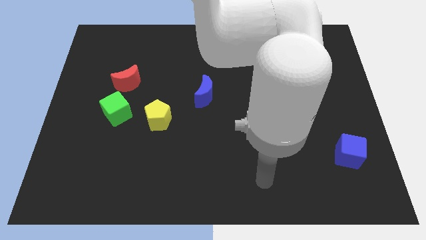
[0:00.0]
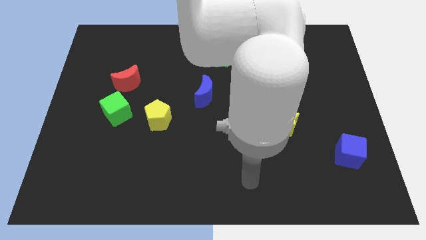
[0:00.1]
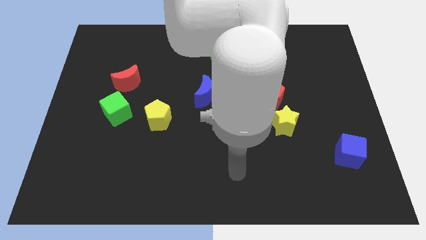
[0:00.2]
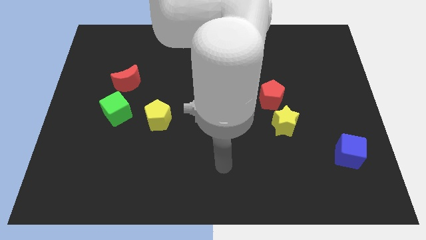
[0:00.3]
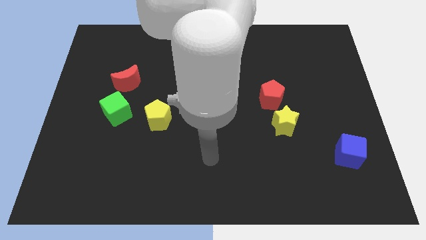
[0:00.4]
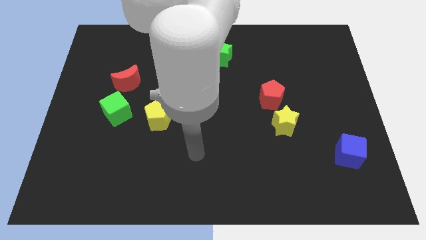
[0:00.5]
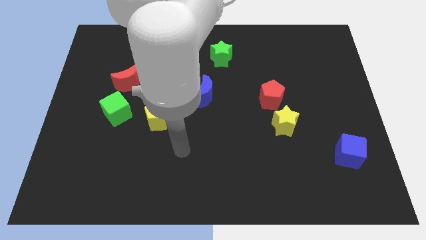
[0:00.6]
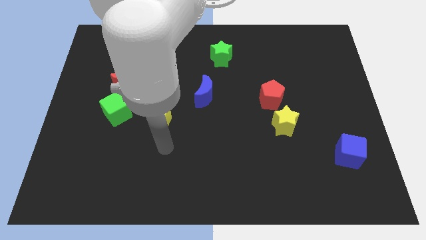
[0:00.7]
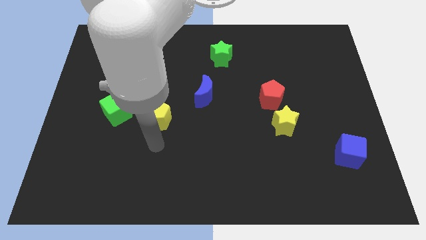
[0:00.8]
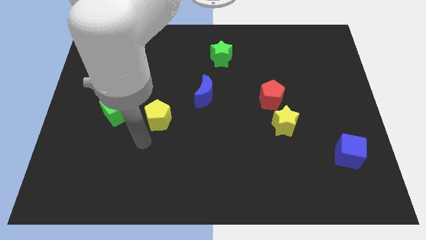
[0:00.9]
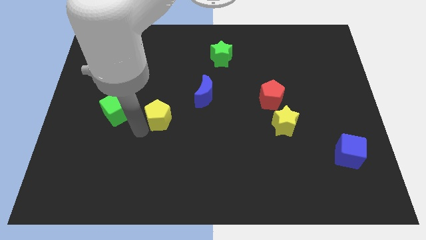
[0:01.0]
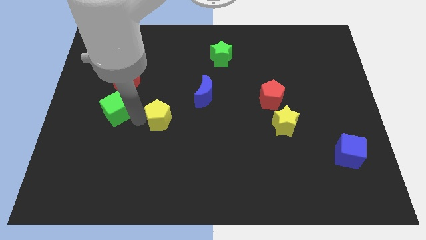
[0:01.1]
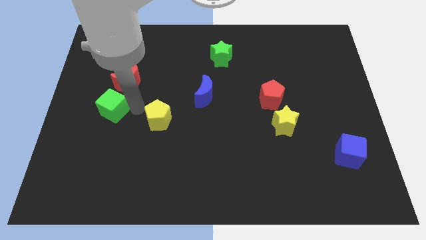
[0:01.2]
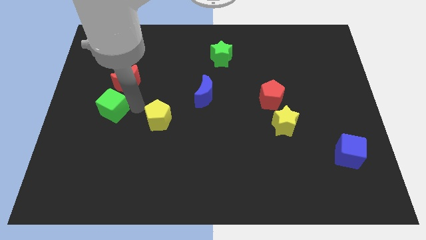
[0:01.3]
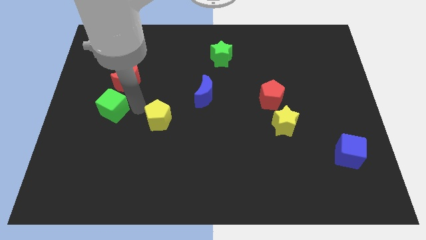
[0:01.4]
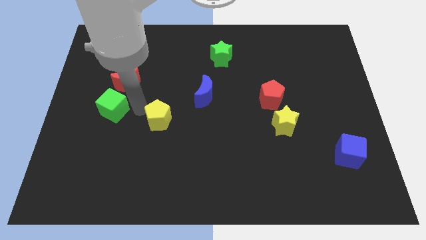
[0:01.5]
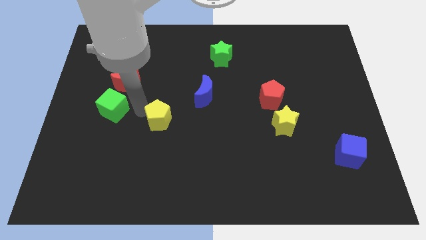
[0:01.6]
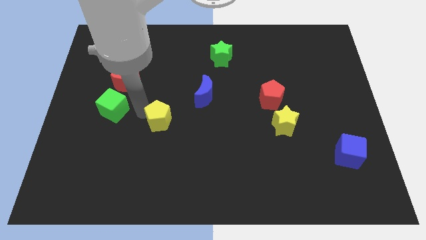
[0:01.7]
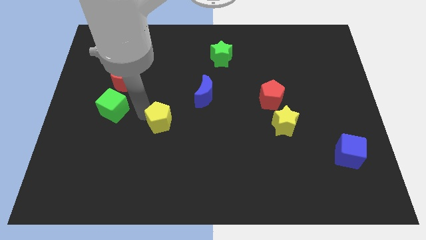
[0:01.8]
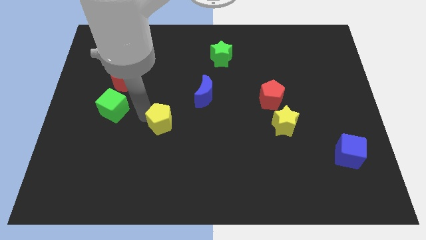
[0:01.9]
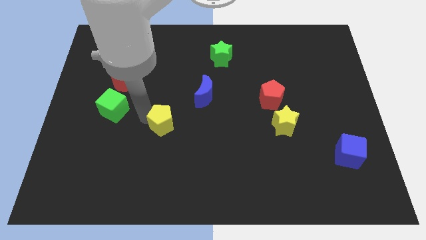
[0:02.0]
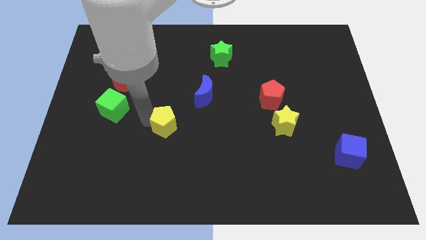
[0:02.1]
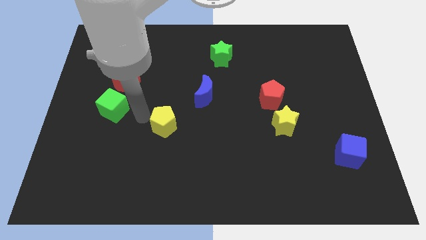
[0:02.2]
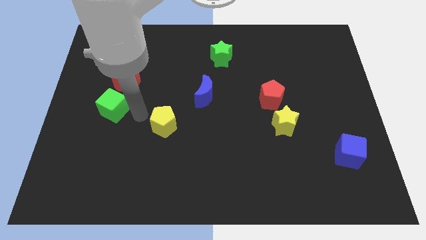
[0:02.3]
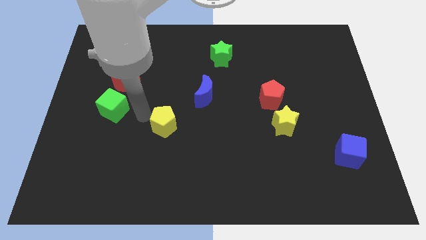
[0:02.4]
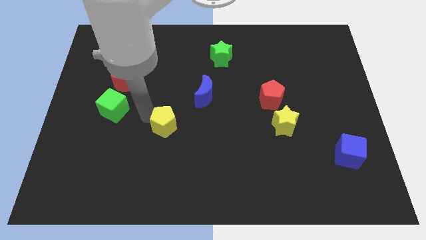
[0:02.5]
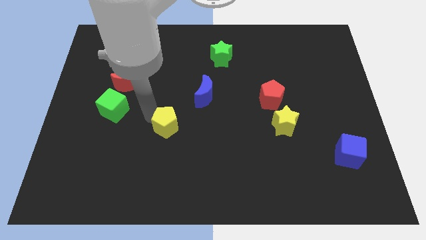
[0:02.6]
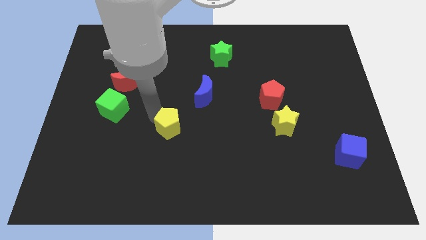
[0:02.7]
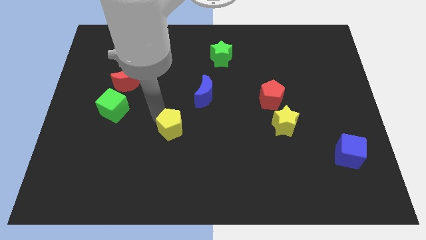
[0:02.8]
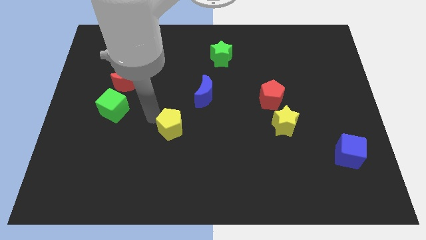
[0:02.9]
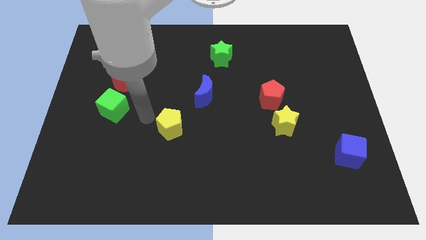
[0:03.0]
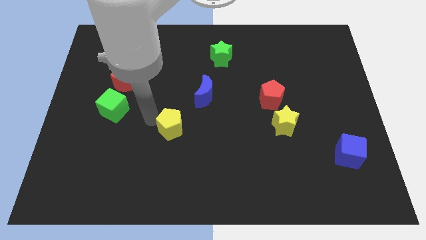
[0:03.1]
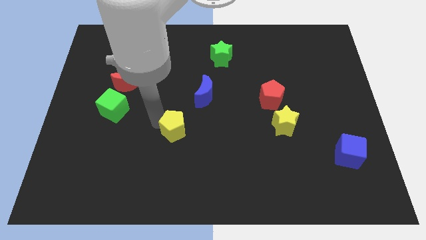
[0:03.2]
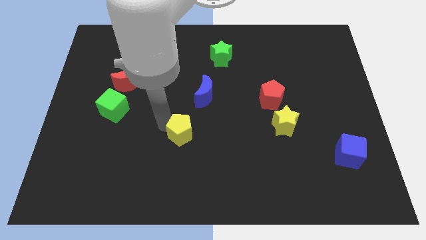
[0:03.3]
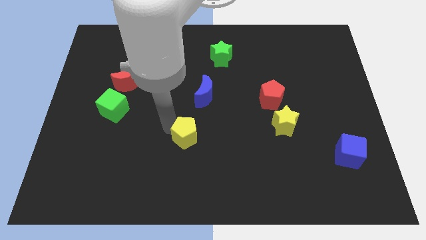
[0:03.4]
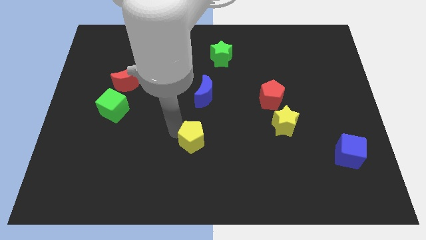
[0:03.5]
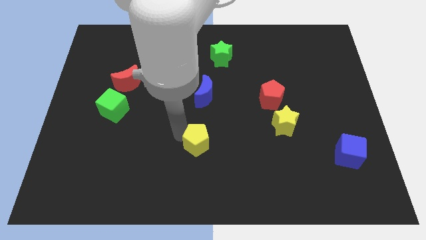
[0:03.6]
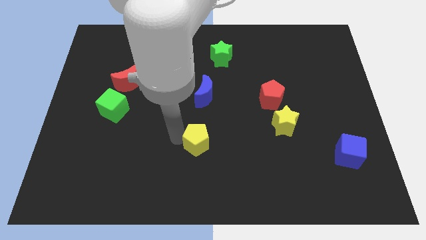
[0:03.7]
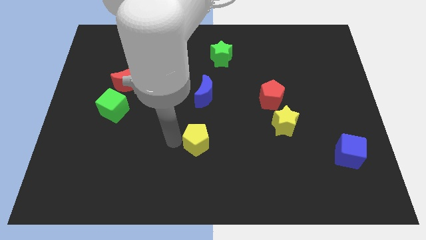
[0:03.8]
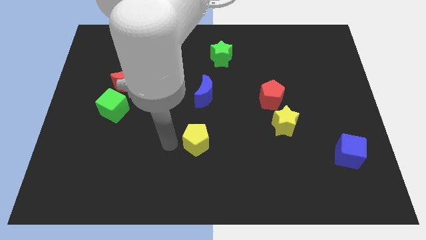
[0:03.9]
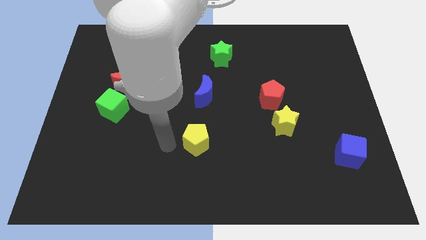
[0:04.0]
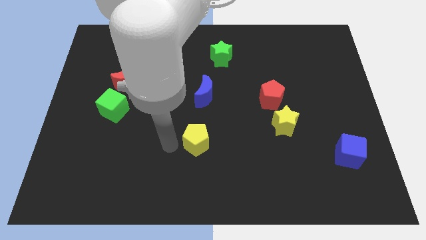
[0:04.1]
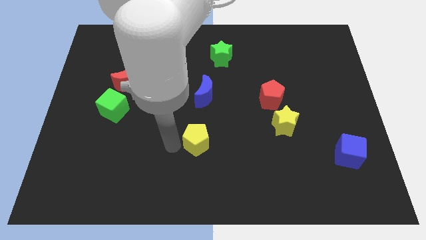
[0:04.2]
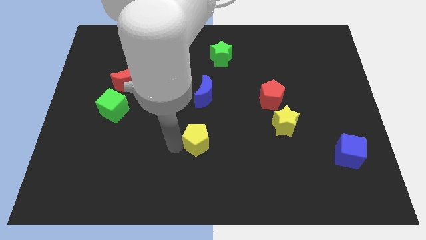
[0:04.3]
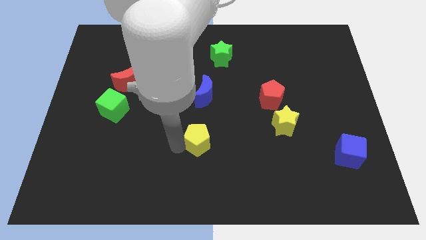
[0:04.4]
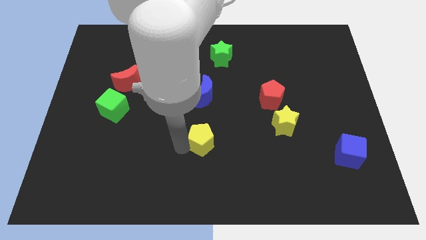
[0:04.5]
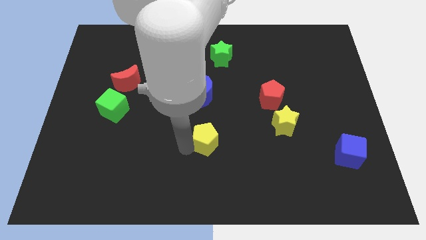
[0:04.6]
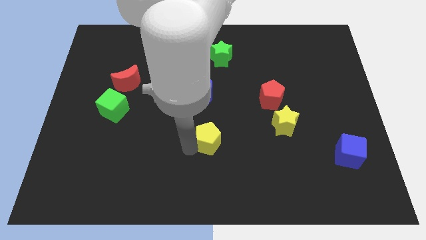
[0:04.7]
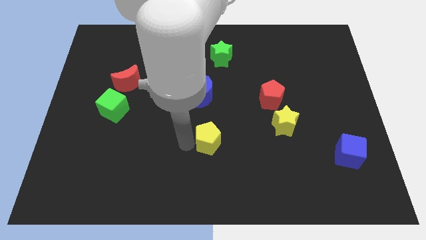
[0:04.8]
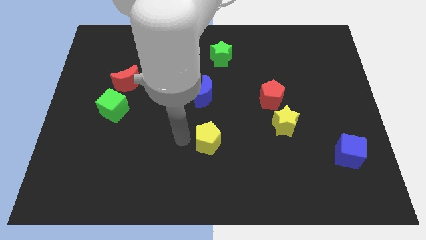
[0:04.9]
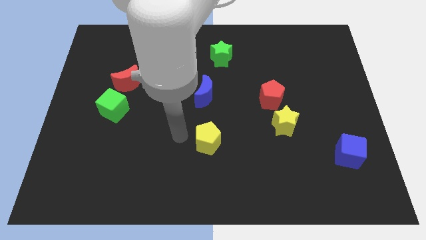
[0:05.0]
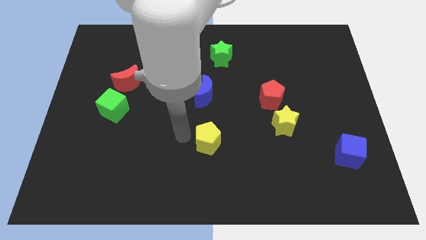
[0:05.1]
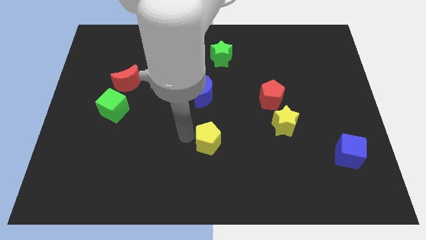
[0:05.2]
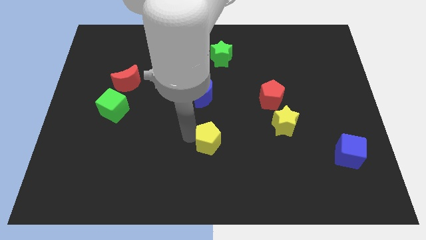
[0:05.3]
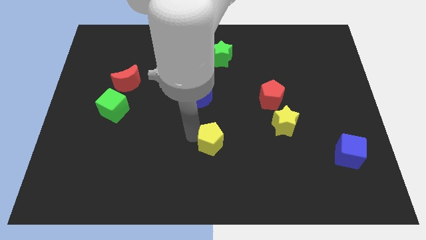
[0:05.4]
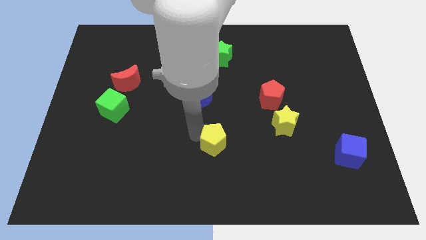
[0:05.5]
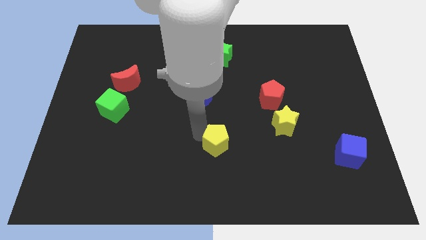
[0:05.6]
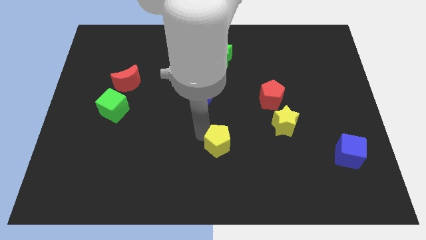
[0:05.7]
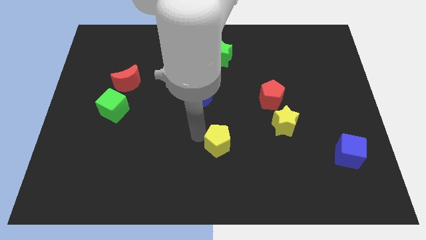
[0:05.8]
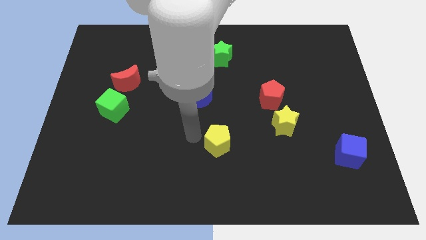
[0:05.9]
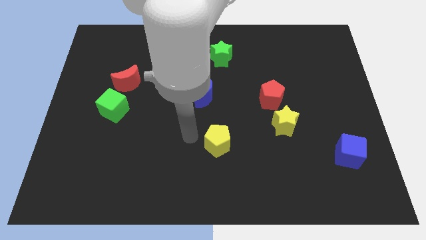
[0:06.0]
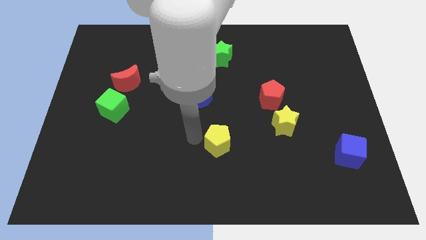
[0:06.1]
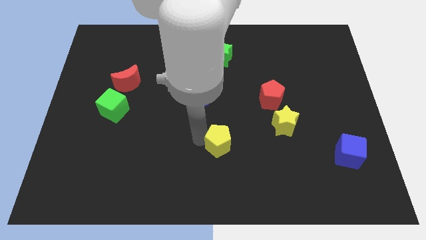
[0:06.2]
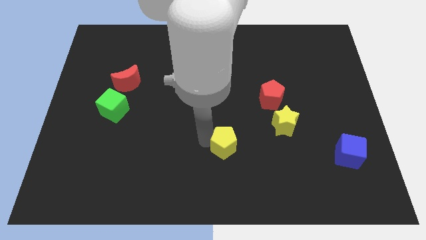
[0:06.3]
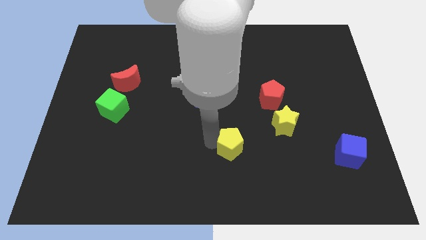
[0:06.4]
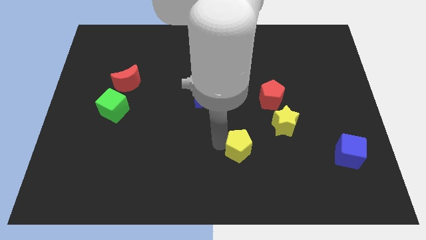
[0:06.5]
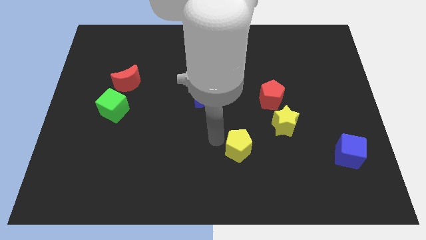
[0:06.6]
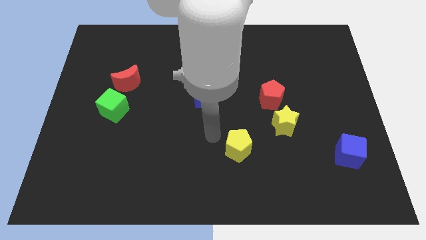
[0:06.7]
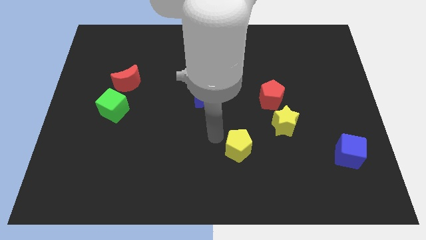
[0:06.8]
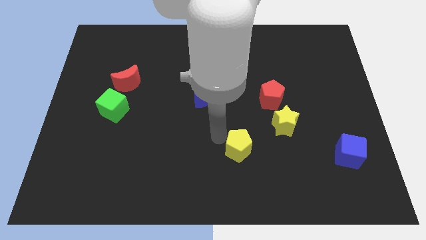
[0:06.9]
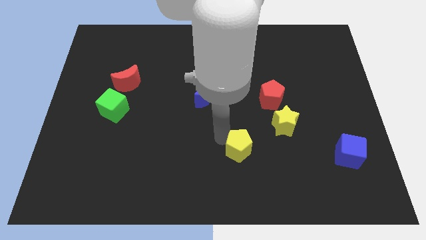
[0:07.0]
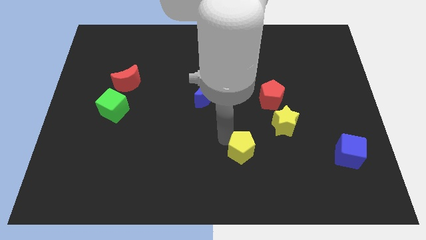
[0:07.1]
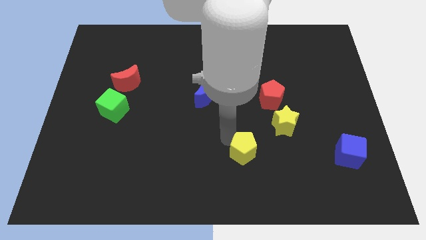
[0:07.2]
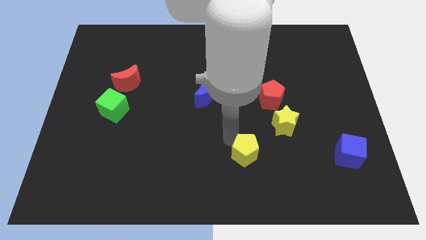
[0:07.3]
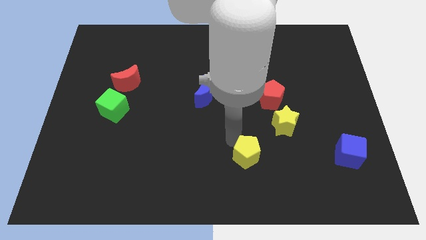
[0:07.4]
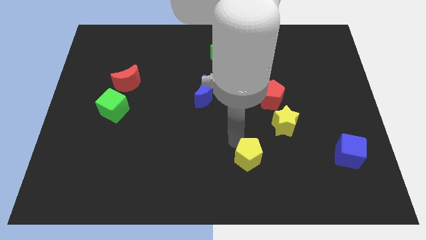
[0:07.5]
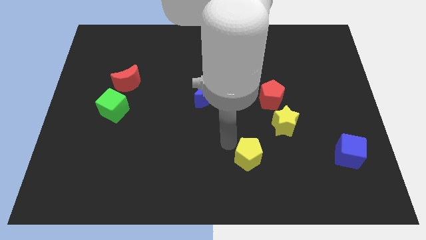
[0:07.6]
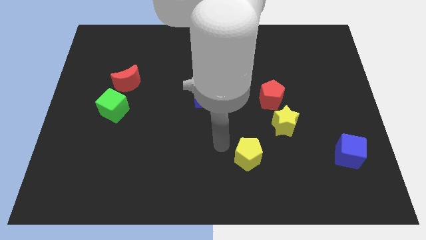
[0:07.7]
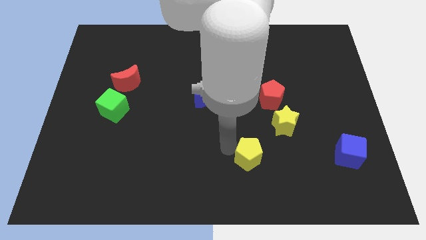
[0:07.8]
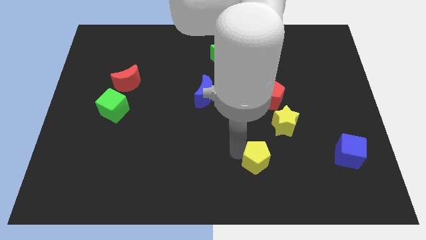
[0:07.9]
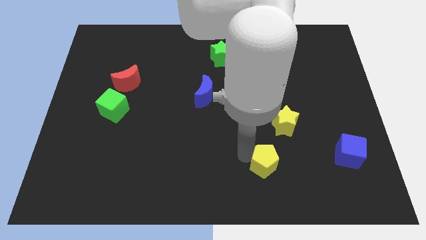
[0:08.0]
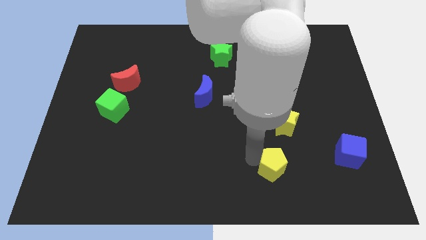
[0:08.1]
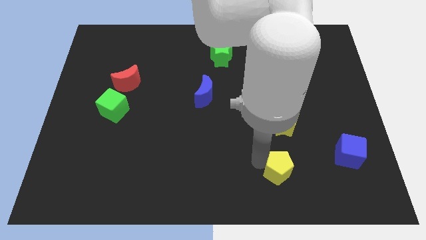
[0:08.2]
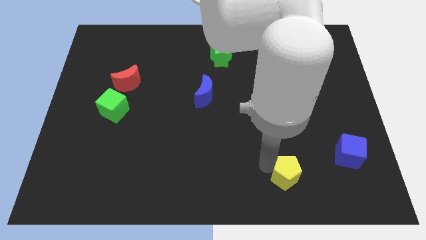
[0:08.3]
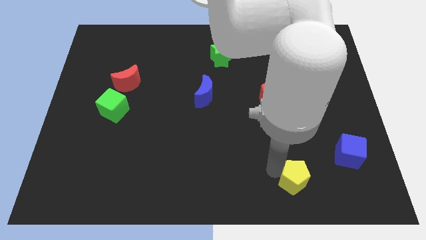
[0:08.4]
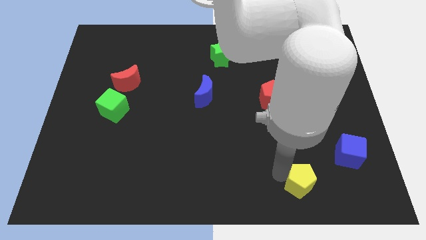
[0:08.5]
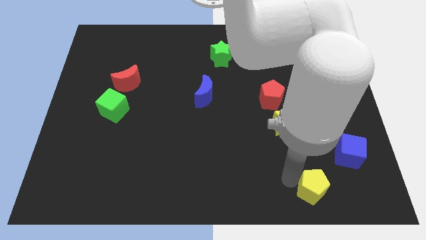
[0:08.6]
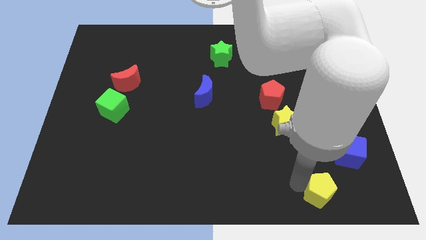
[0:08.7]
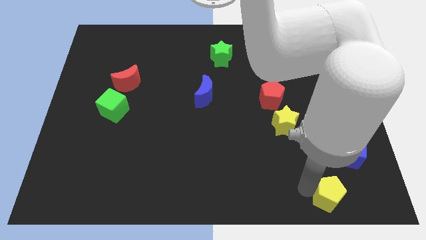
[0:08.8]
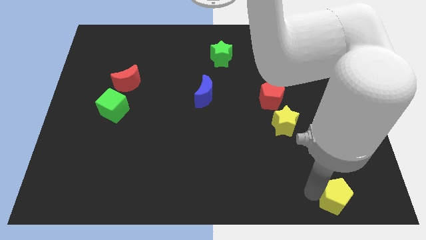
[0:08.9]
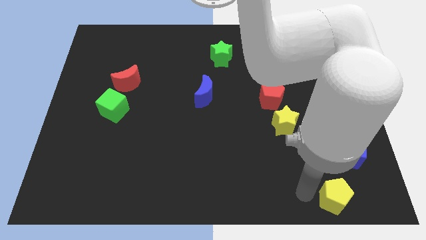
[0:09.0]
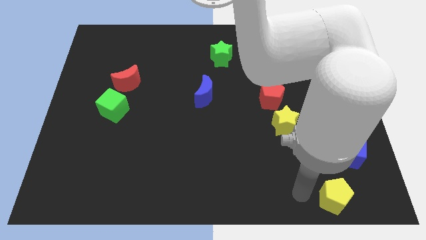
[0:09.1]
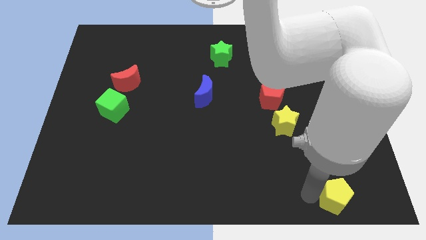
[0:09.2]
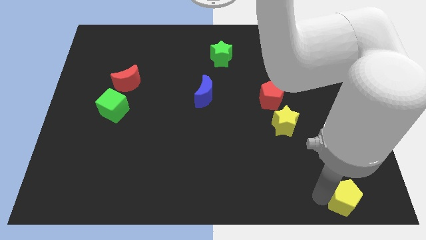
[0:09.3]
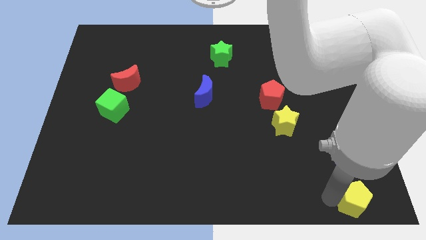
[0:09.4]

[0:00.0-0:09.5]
move the yellow pentagon to the bottom right corner
